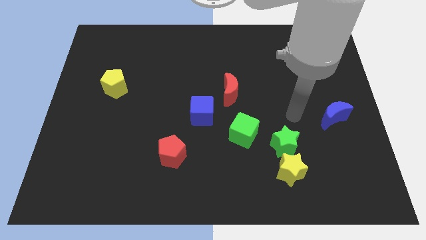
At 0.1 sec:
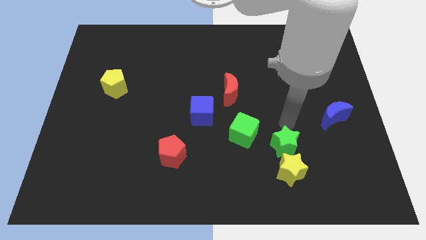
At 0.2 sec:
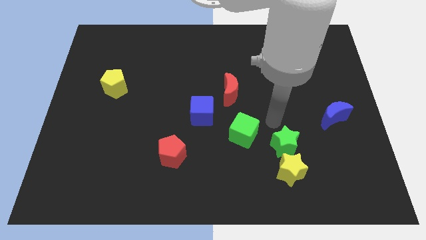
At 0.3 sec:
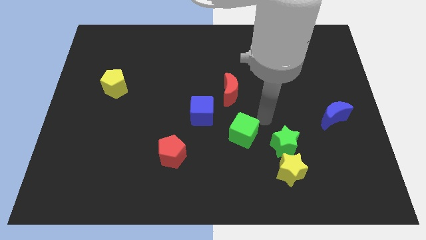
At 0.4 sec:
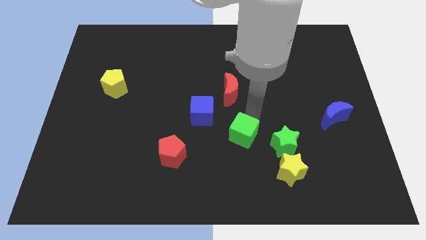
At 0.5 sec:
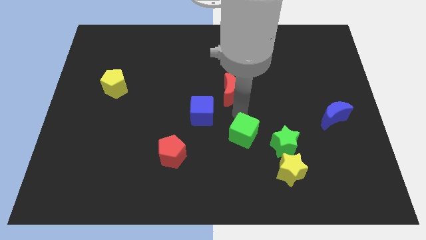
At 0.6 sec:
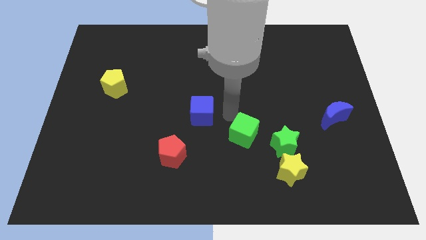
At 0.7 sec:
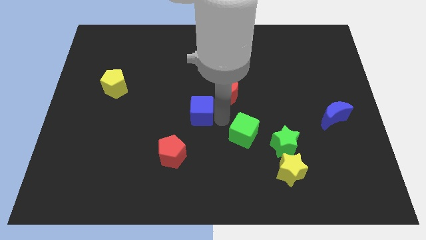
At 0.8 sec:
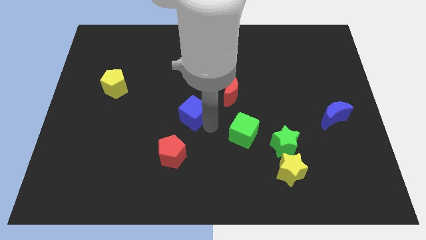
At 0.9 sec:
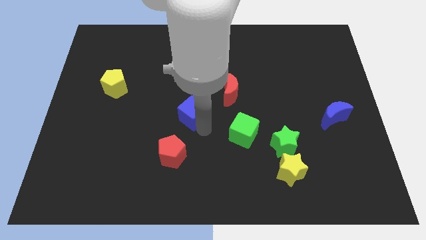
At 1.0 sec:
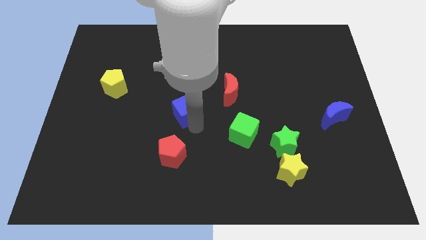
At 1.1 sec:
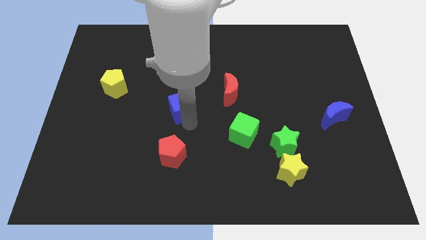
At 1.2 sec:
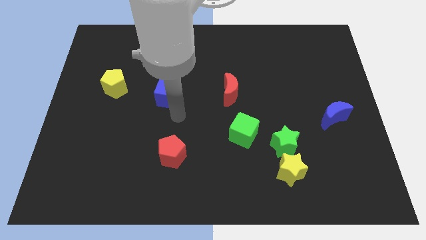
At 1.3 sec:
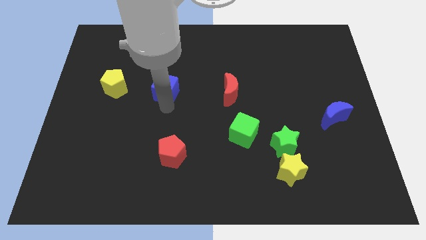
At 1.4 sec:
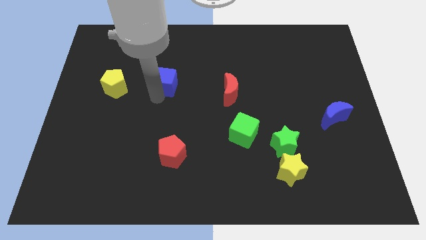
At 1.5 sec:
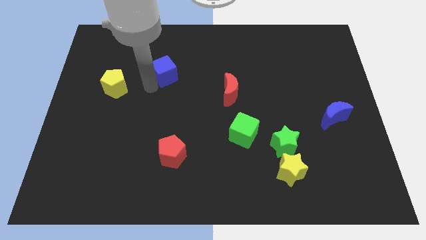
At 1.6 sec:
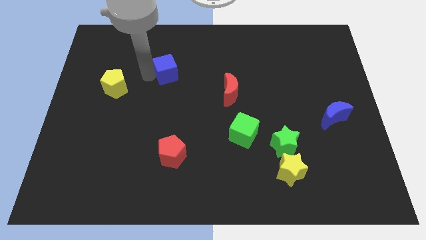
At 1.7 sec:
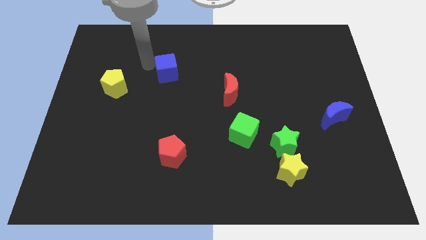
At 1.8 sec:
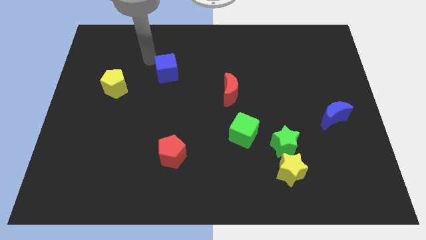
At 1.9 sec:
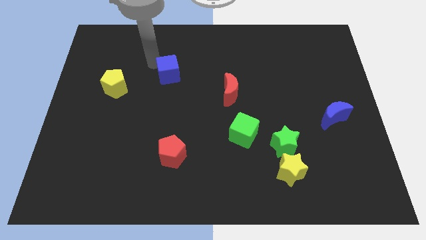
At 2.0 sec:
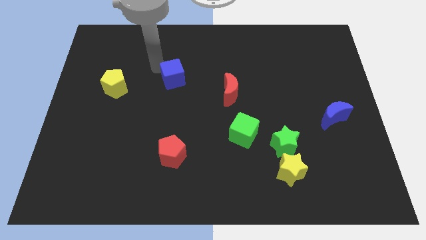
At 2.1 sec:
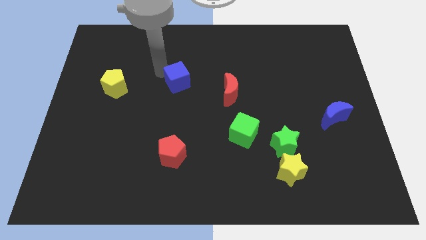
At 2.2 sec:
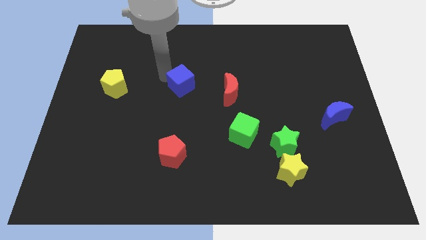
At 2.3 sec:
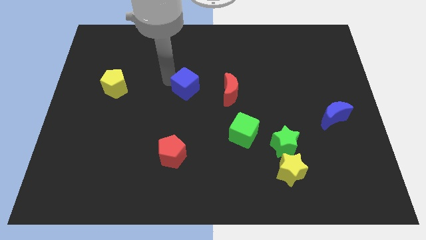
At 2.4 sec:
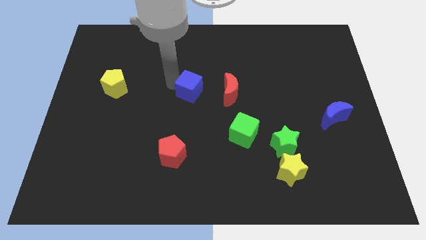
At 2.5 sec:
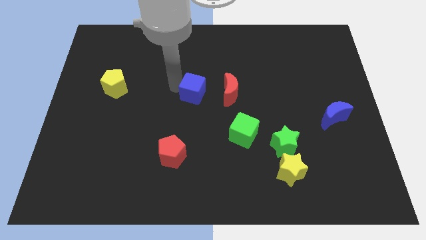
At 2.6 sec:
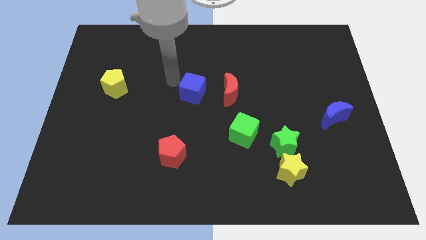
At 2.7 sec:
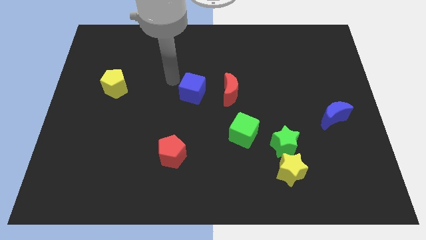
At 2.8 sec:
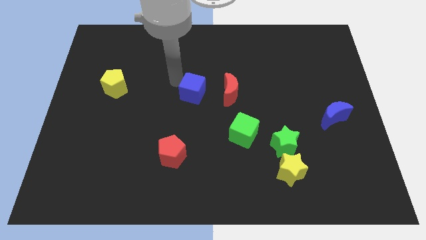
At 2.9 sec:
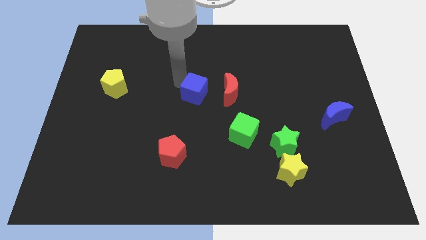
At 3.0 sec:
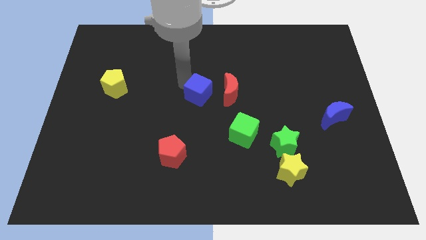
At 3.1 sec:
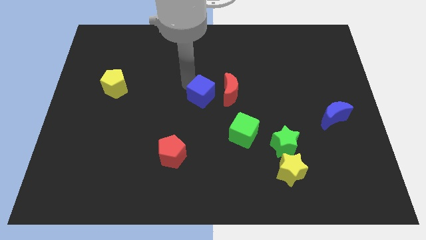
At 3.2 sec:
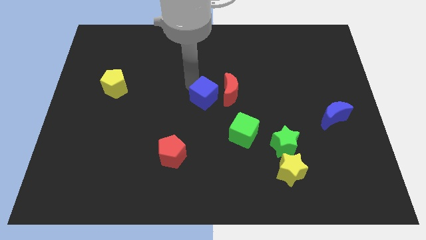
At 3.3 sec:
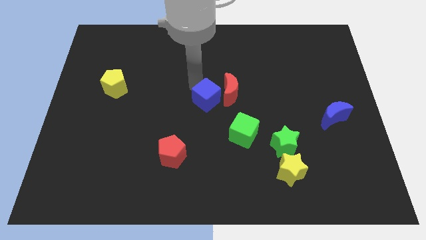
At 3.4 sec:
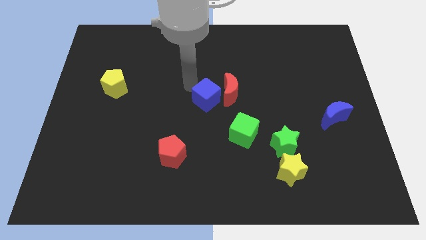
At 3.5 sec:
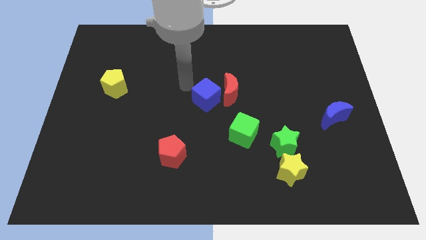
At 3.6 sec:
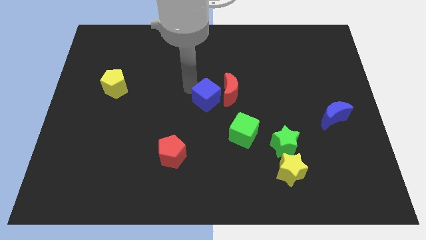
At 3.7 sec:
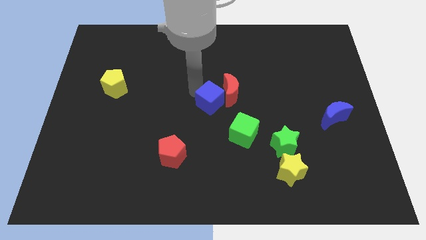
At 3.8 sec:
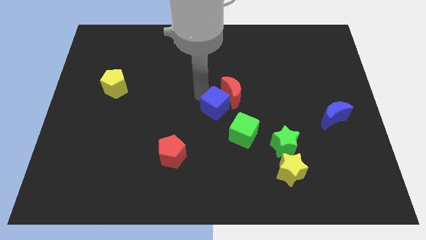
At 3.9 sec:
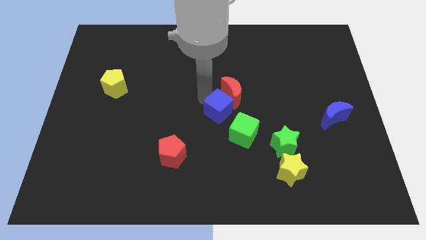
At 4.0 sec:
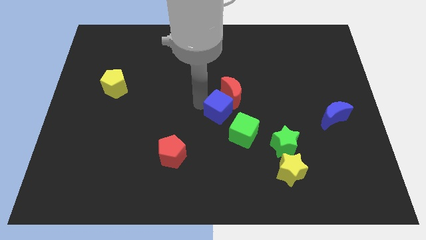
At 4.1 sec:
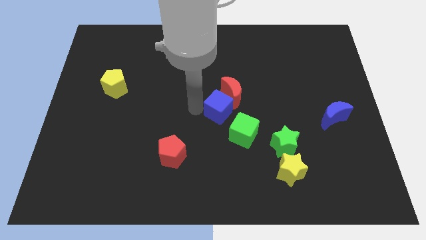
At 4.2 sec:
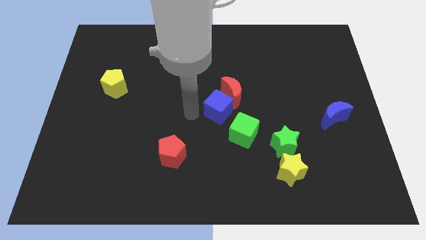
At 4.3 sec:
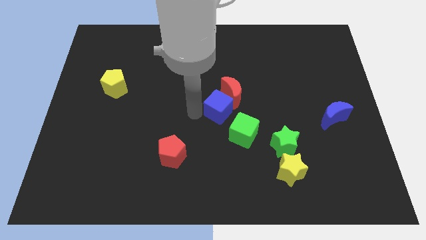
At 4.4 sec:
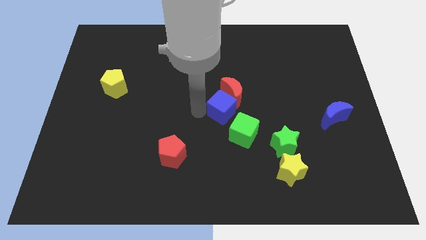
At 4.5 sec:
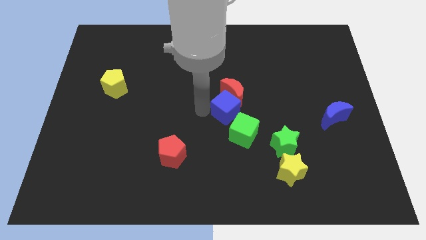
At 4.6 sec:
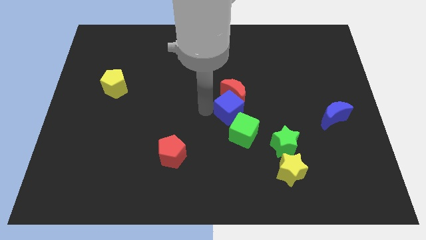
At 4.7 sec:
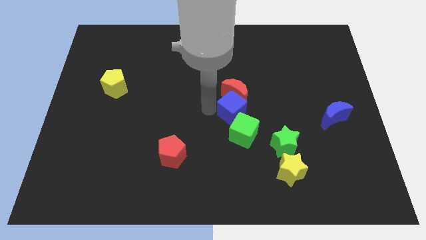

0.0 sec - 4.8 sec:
slide the blue cube a bit right

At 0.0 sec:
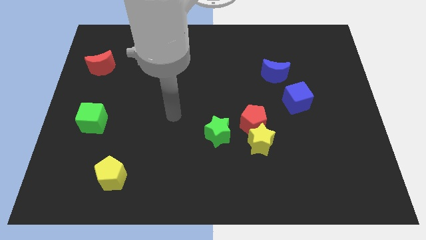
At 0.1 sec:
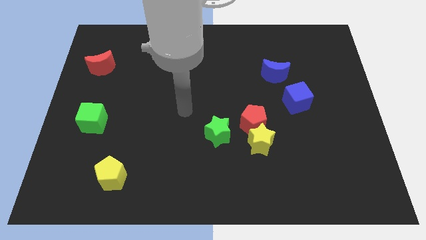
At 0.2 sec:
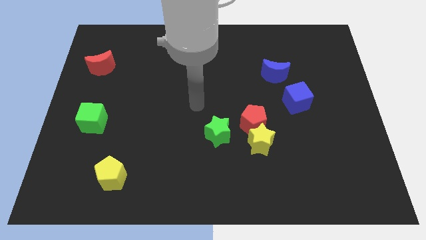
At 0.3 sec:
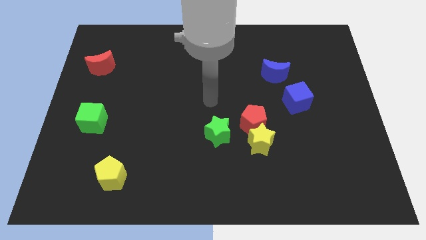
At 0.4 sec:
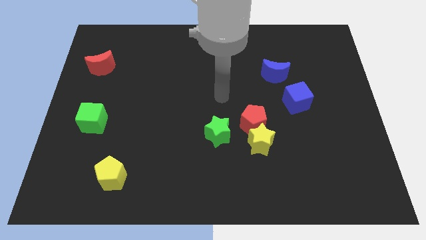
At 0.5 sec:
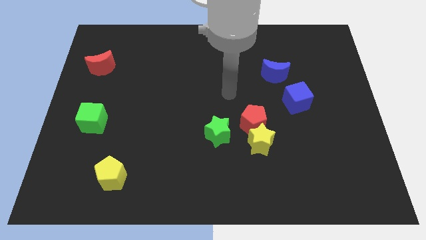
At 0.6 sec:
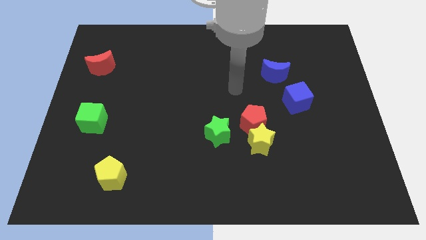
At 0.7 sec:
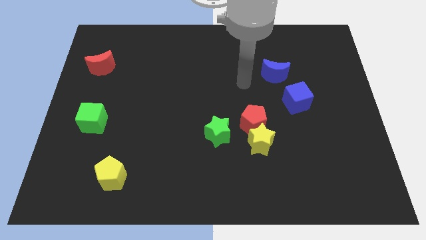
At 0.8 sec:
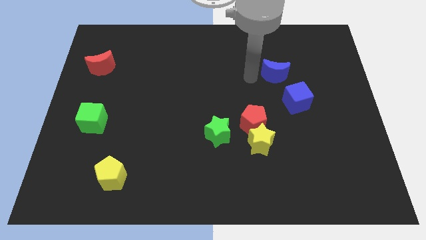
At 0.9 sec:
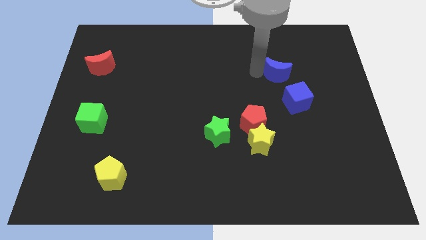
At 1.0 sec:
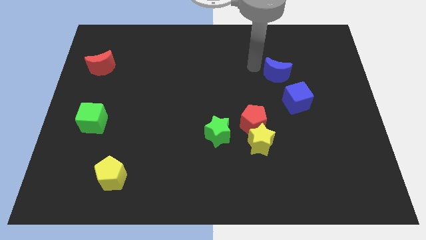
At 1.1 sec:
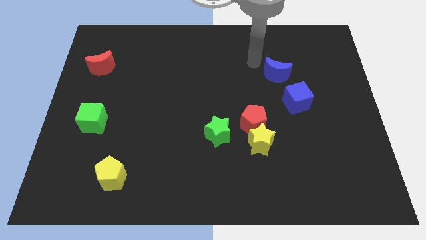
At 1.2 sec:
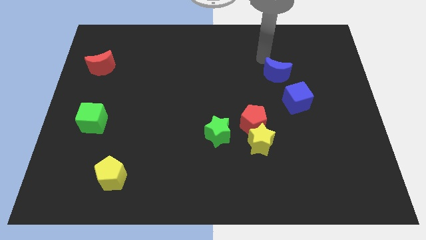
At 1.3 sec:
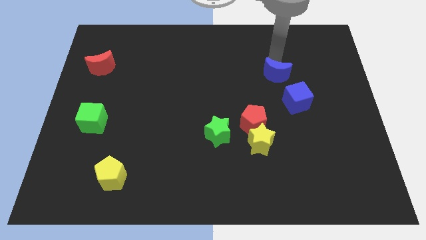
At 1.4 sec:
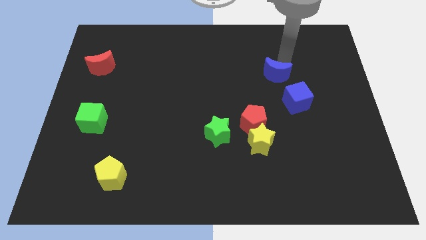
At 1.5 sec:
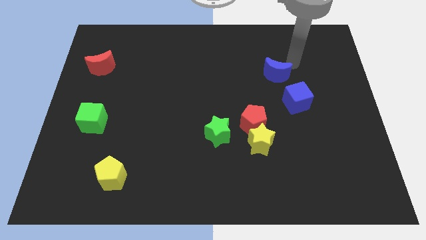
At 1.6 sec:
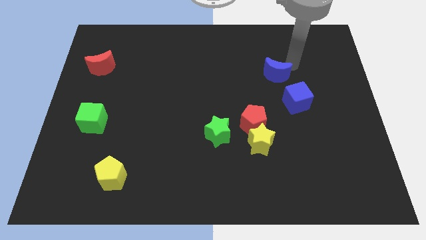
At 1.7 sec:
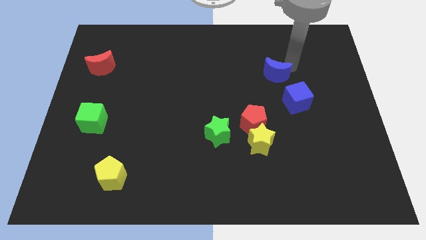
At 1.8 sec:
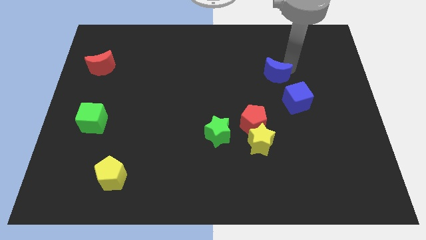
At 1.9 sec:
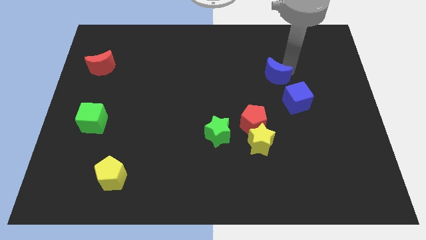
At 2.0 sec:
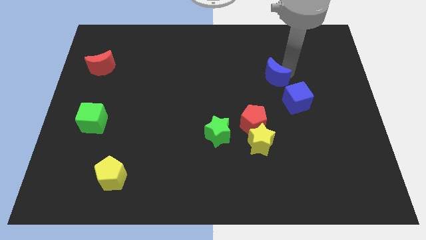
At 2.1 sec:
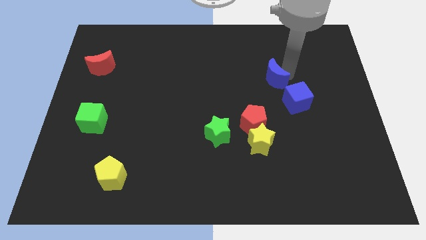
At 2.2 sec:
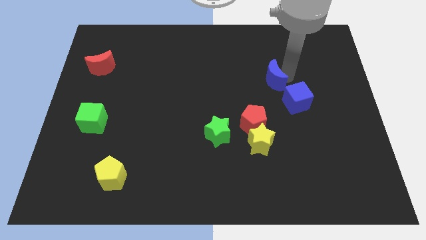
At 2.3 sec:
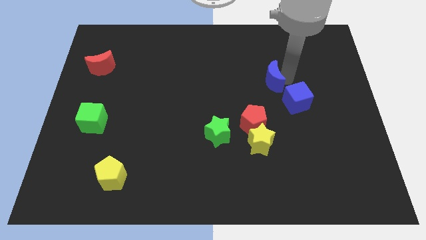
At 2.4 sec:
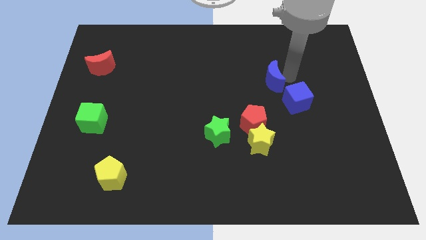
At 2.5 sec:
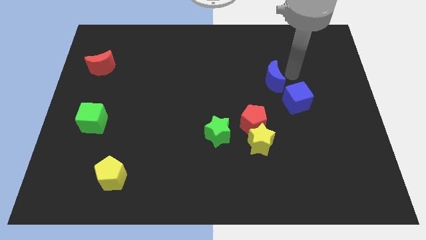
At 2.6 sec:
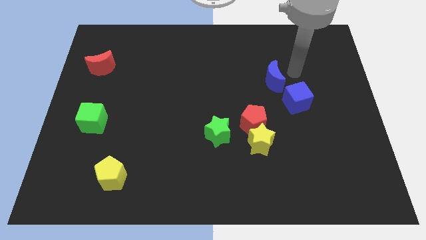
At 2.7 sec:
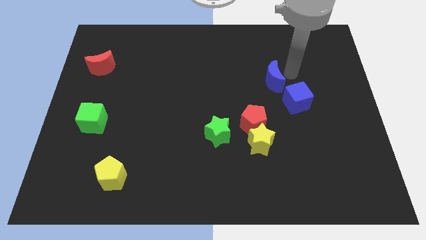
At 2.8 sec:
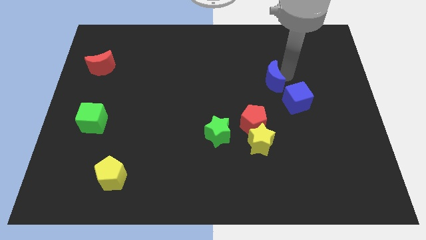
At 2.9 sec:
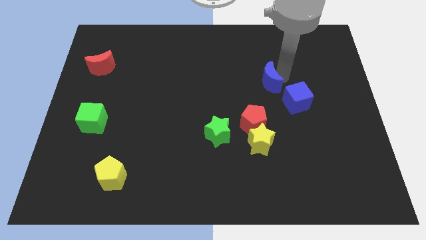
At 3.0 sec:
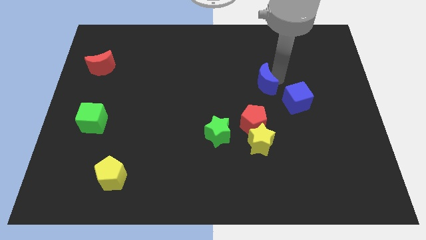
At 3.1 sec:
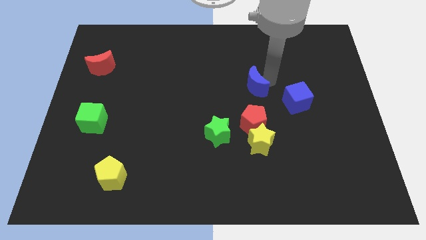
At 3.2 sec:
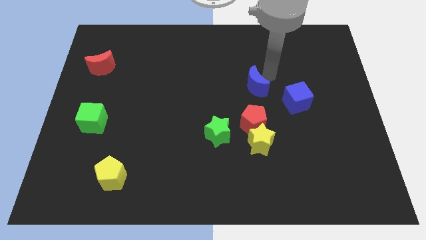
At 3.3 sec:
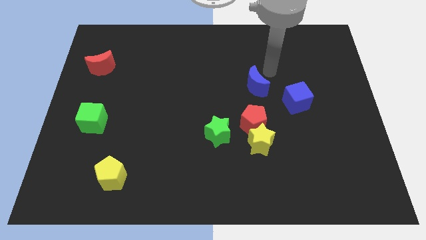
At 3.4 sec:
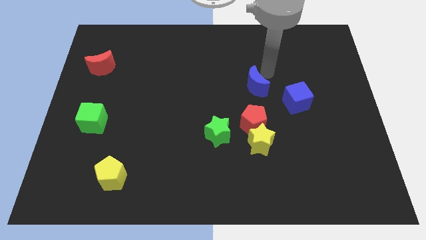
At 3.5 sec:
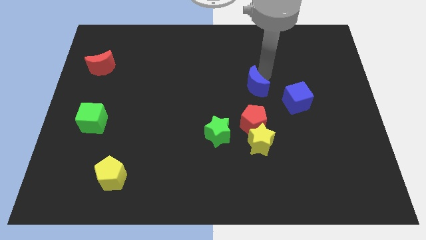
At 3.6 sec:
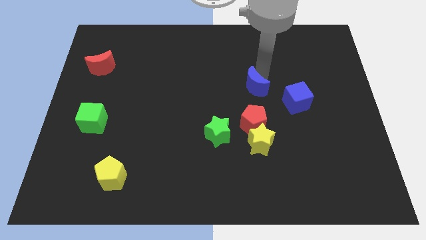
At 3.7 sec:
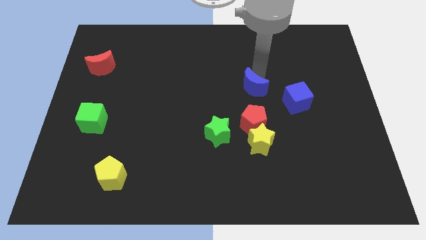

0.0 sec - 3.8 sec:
slide the blue moon downwards and to the left slightly
